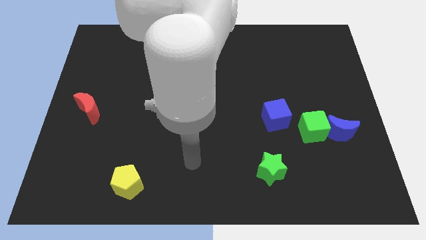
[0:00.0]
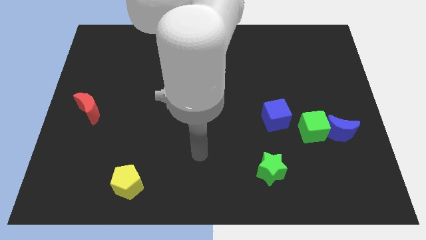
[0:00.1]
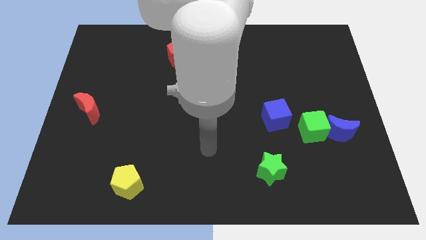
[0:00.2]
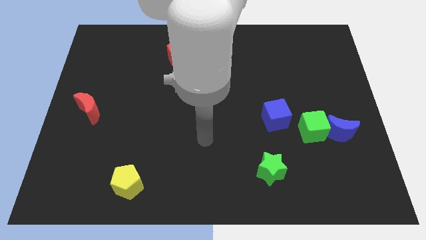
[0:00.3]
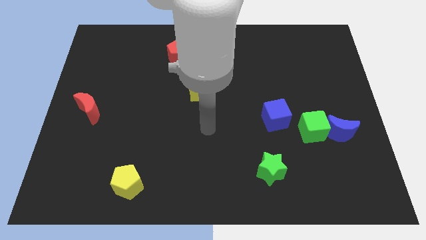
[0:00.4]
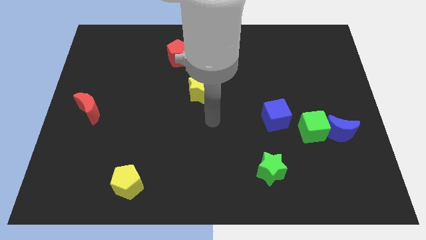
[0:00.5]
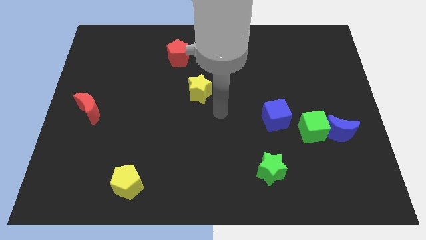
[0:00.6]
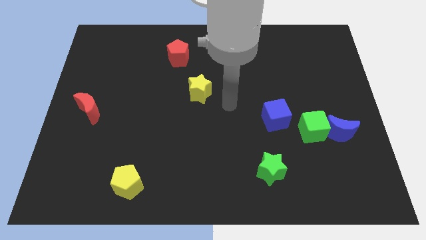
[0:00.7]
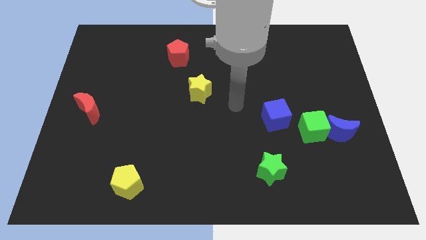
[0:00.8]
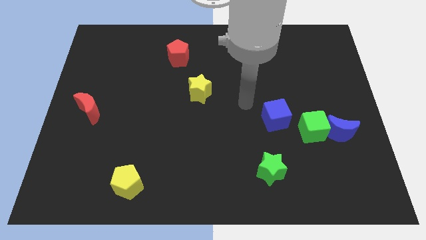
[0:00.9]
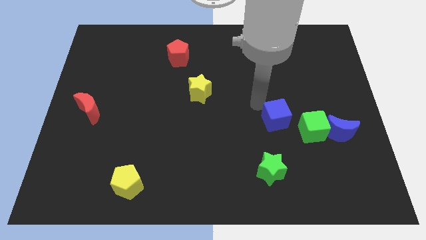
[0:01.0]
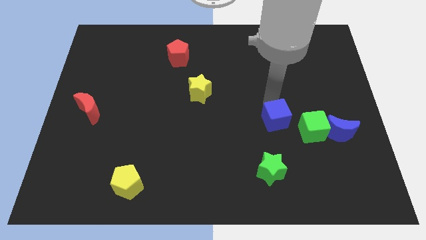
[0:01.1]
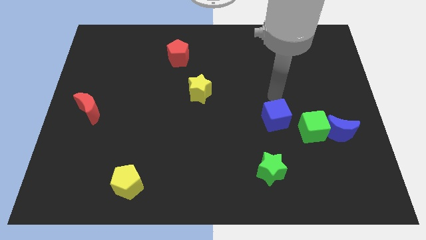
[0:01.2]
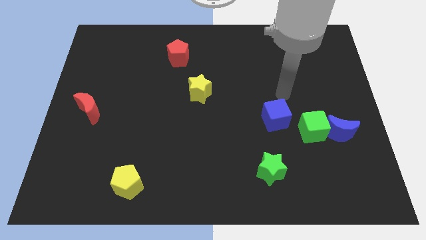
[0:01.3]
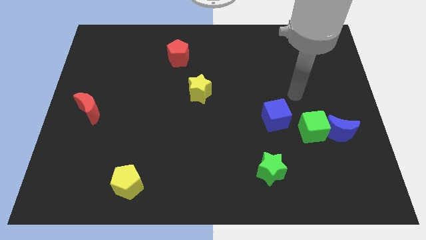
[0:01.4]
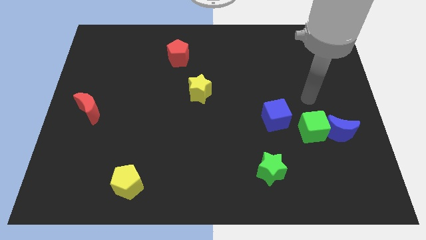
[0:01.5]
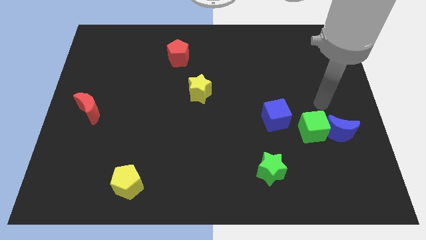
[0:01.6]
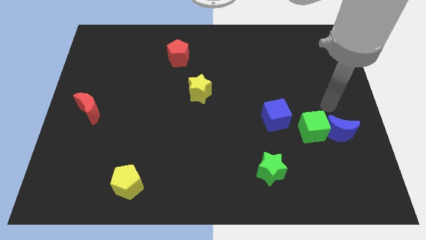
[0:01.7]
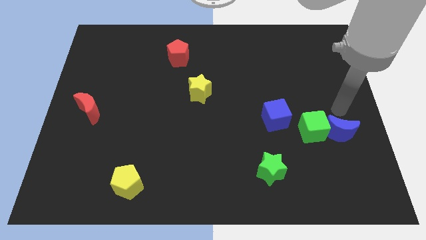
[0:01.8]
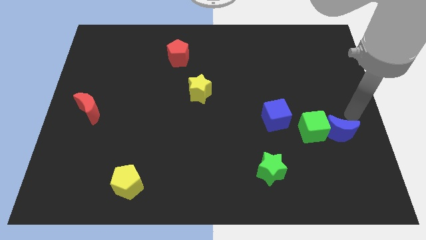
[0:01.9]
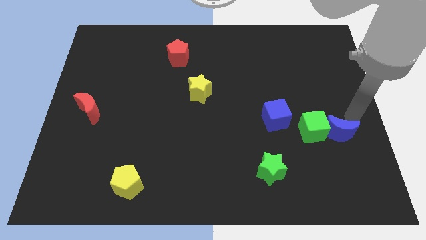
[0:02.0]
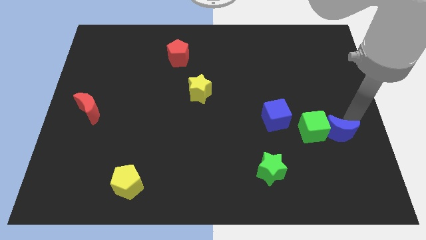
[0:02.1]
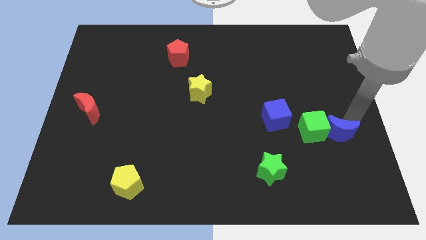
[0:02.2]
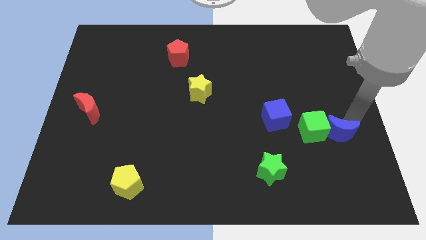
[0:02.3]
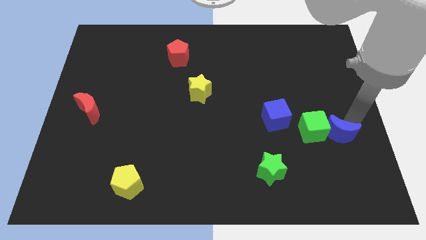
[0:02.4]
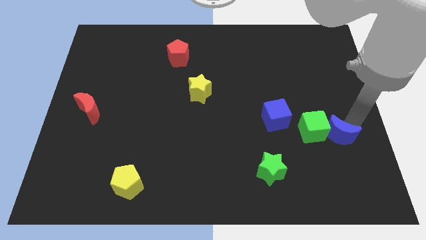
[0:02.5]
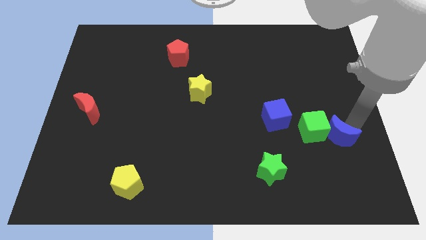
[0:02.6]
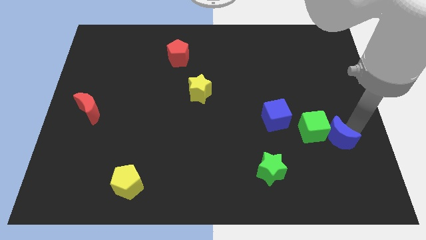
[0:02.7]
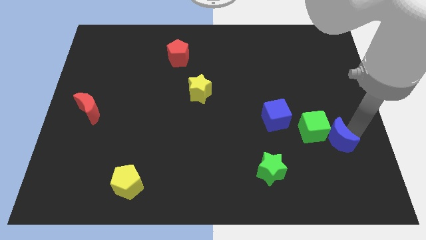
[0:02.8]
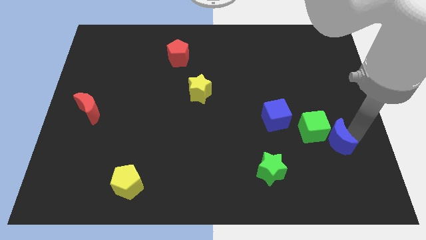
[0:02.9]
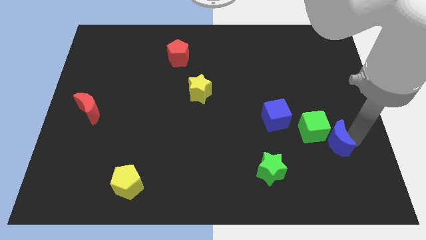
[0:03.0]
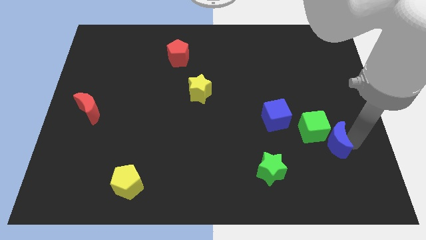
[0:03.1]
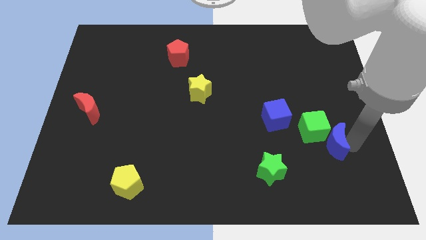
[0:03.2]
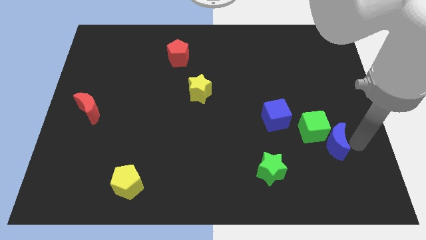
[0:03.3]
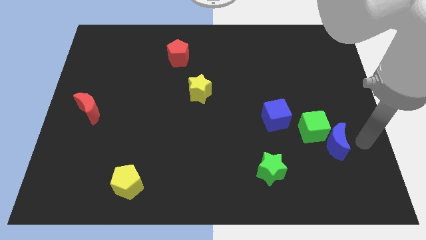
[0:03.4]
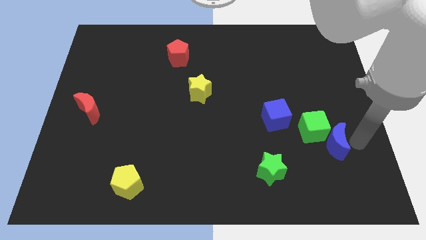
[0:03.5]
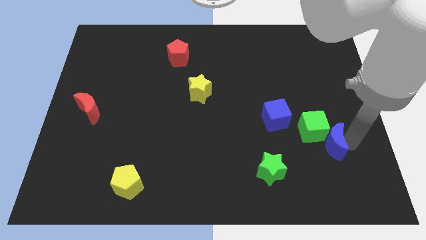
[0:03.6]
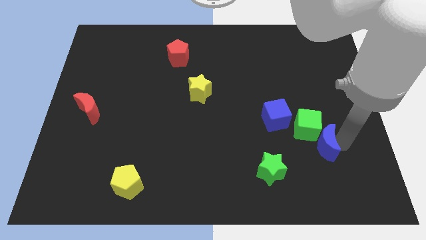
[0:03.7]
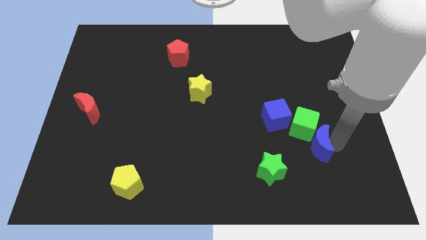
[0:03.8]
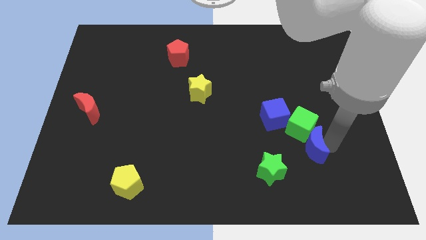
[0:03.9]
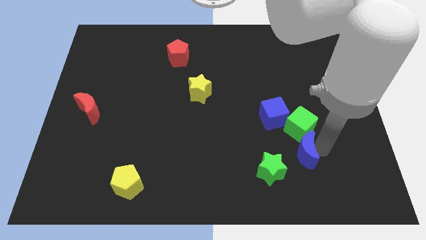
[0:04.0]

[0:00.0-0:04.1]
push the blue moon slightly left

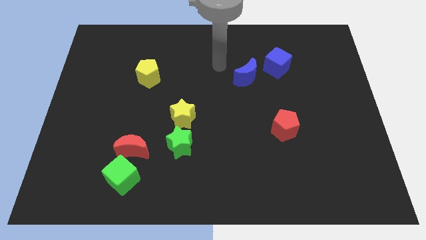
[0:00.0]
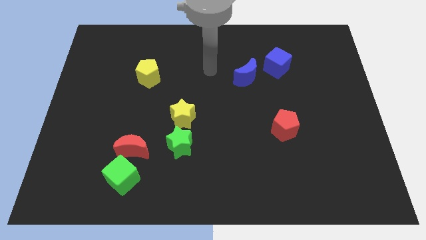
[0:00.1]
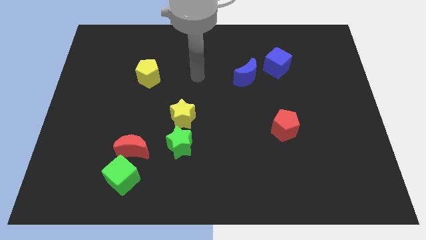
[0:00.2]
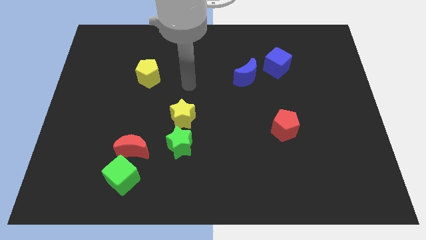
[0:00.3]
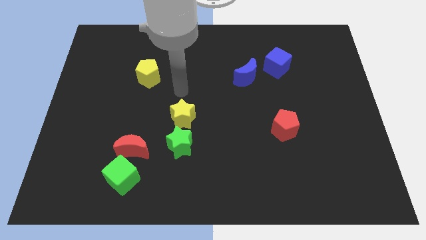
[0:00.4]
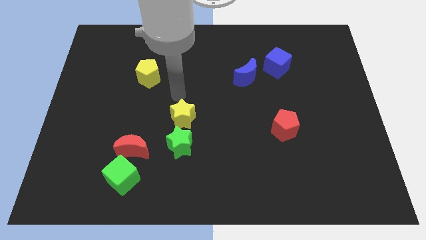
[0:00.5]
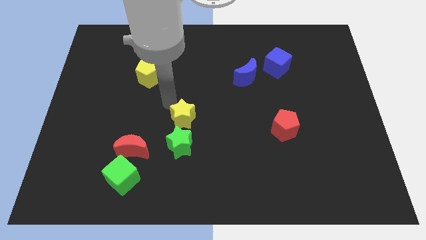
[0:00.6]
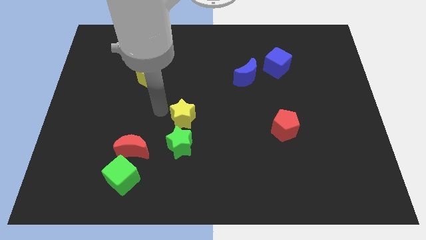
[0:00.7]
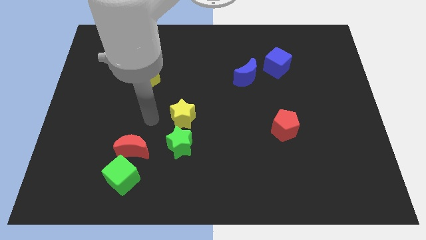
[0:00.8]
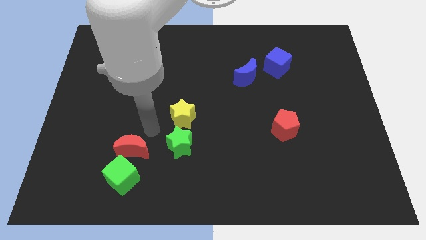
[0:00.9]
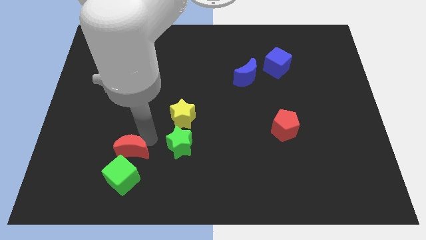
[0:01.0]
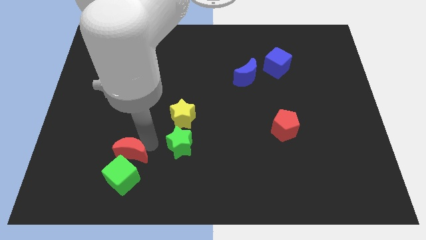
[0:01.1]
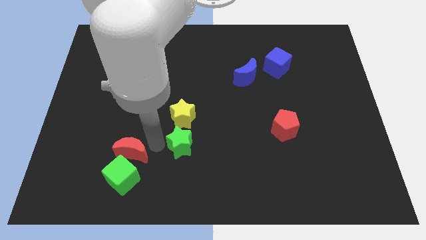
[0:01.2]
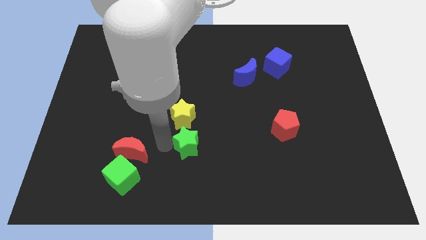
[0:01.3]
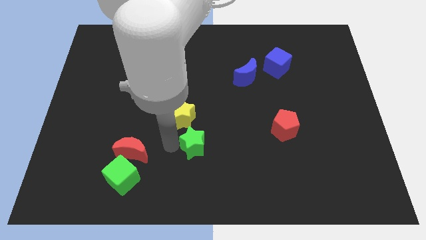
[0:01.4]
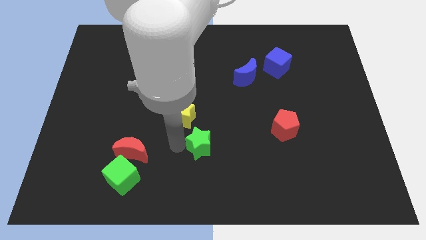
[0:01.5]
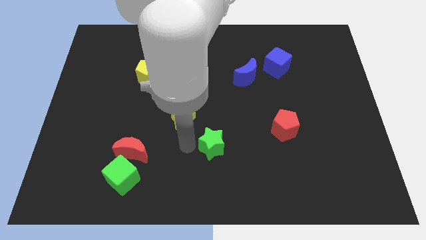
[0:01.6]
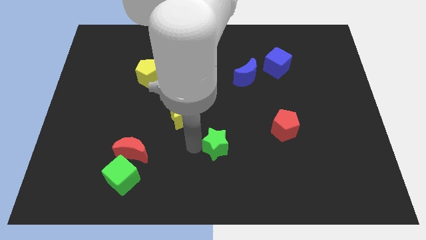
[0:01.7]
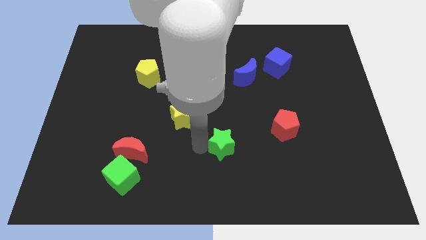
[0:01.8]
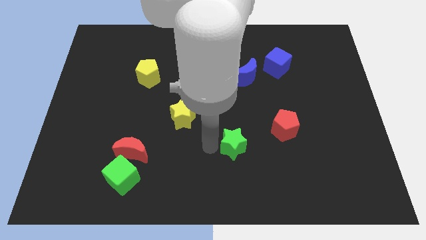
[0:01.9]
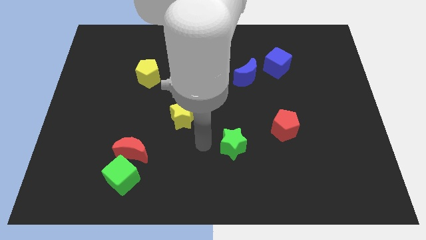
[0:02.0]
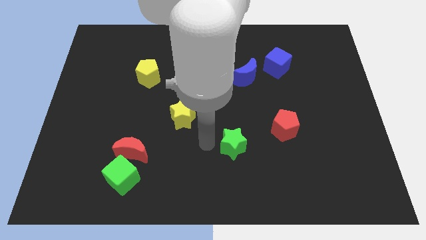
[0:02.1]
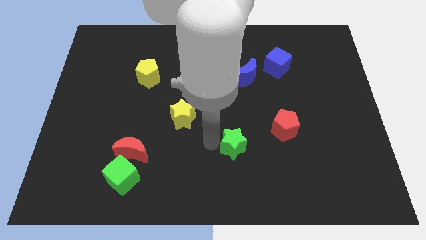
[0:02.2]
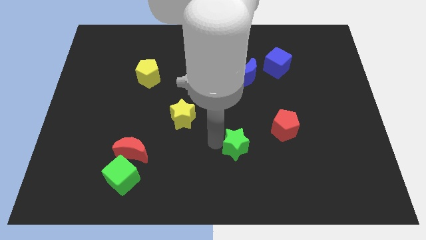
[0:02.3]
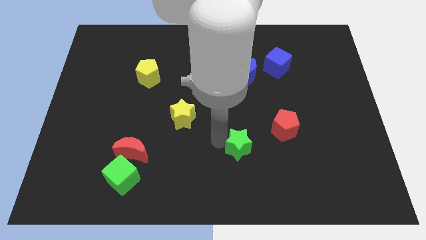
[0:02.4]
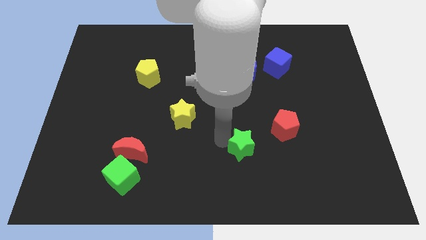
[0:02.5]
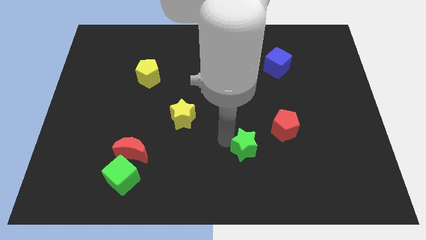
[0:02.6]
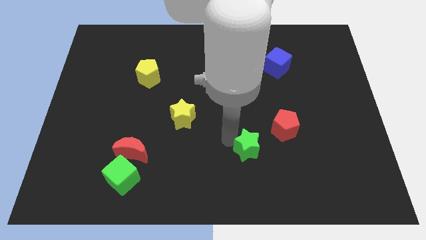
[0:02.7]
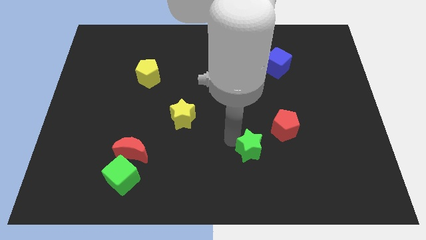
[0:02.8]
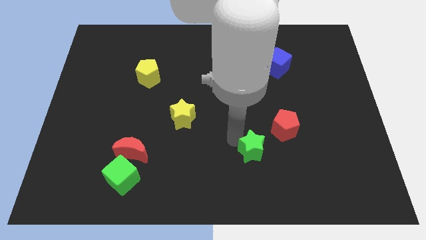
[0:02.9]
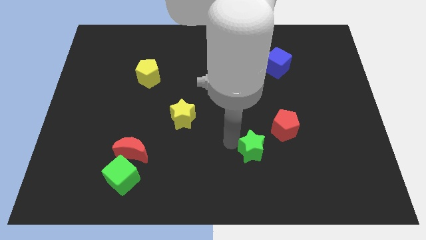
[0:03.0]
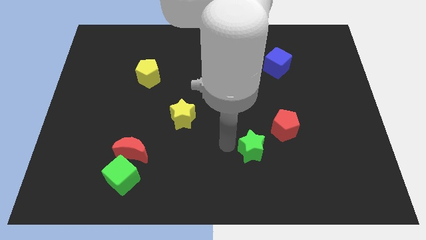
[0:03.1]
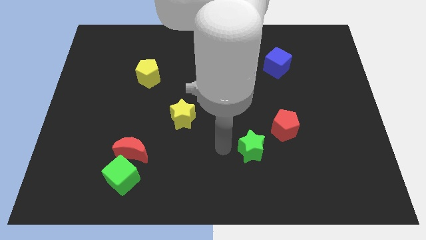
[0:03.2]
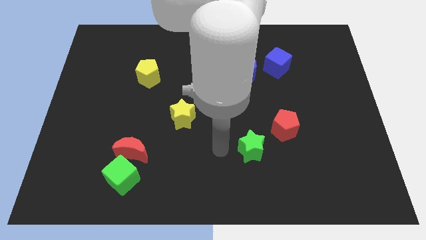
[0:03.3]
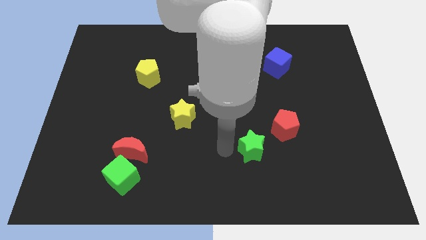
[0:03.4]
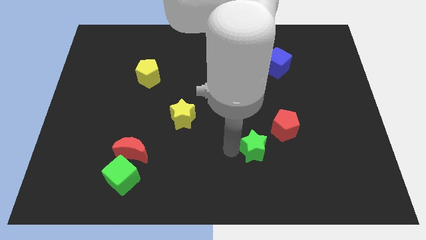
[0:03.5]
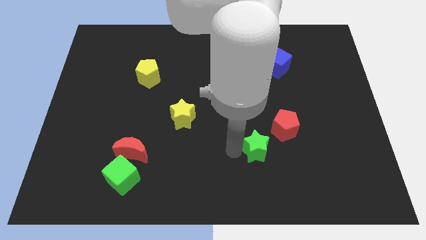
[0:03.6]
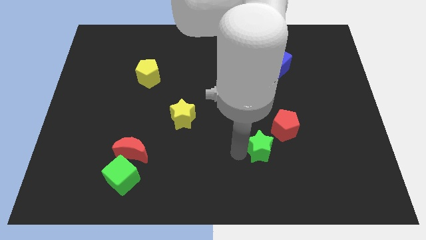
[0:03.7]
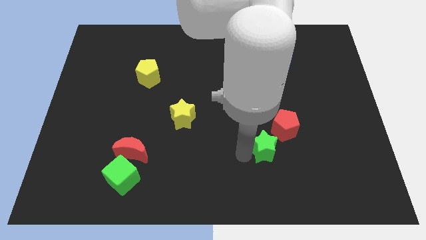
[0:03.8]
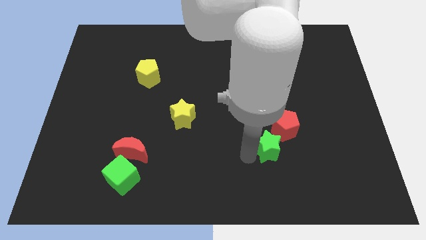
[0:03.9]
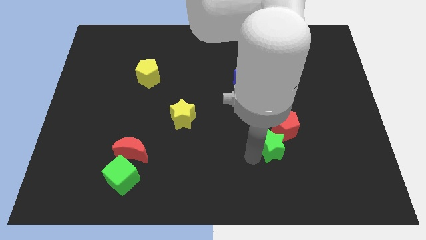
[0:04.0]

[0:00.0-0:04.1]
push the green star to the right
